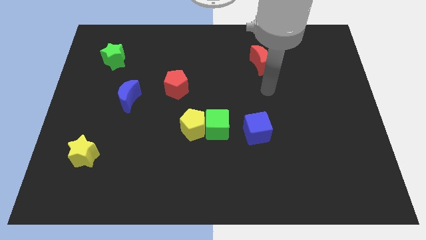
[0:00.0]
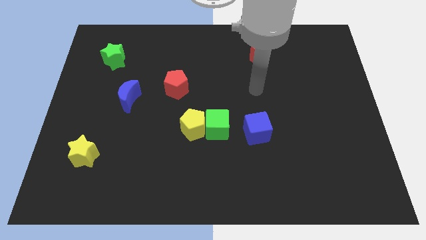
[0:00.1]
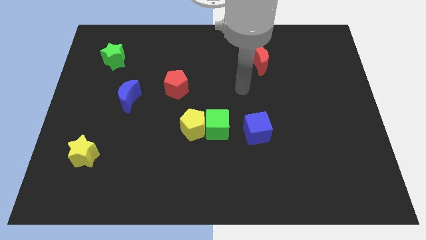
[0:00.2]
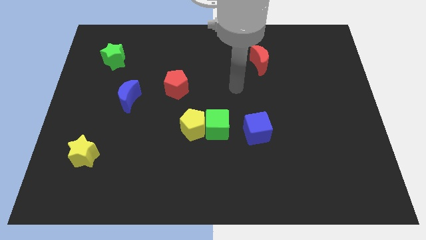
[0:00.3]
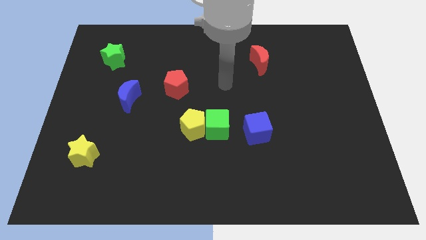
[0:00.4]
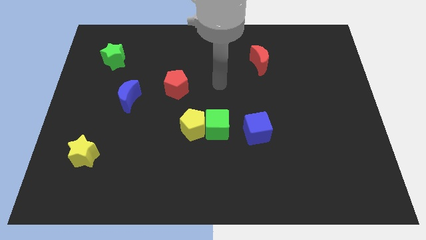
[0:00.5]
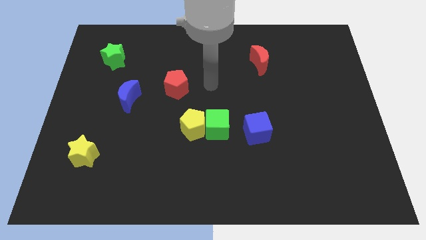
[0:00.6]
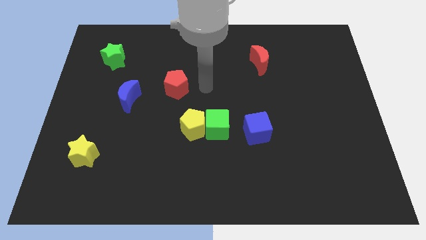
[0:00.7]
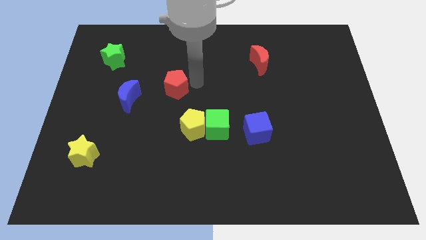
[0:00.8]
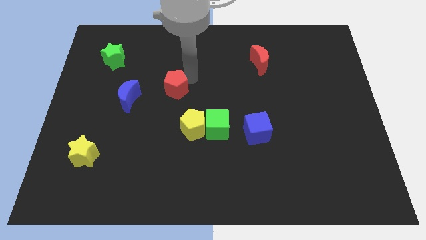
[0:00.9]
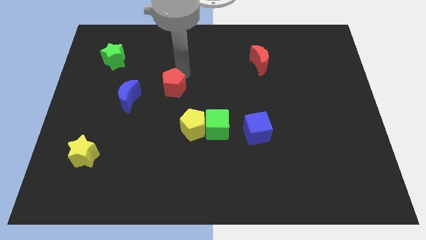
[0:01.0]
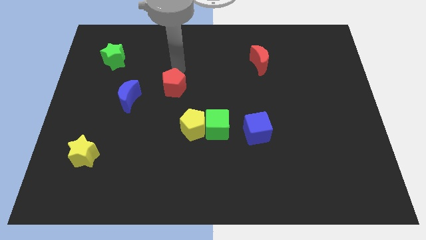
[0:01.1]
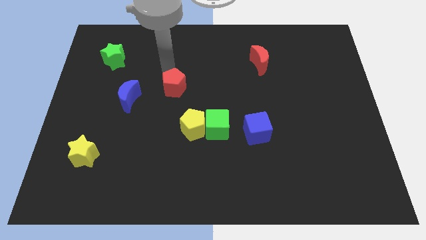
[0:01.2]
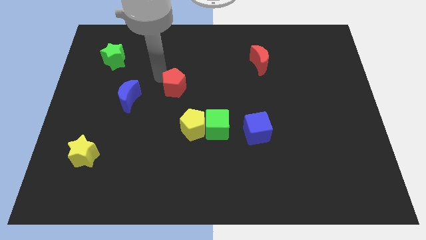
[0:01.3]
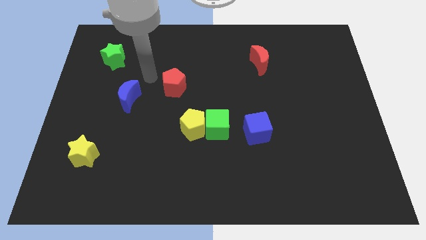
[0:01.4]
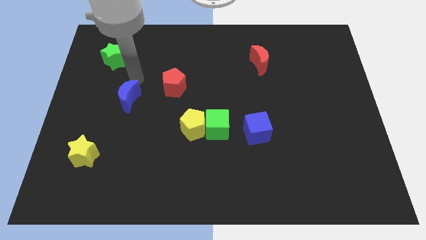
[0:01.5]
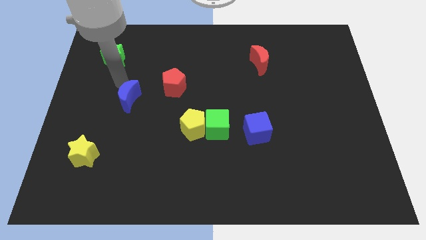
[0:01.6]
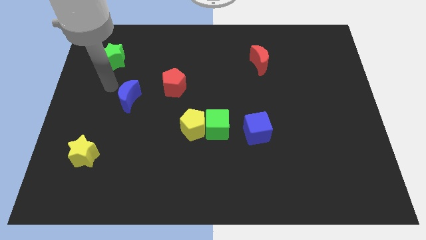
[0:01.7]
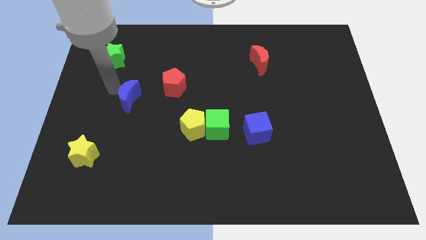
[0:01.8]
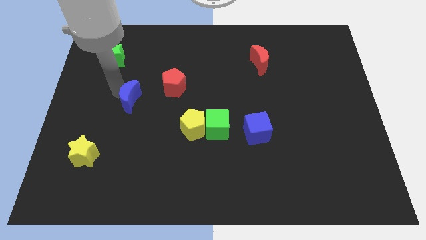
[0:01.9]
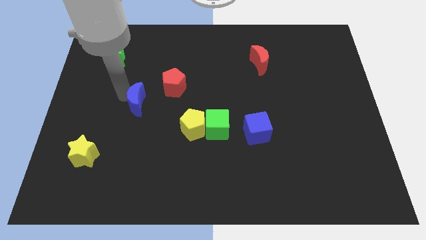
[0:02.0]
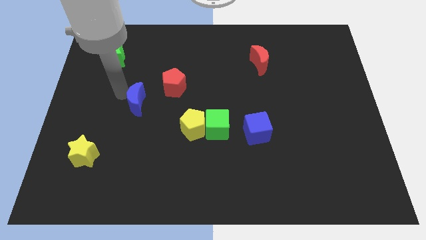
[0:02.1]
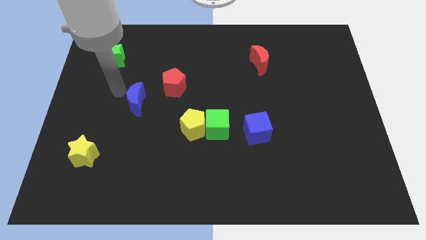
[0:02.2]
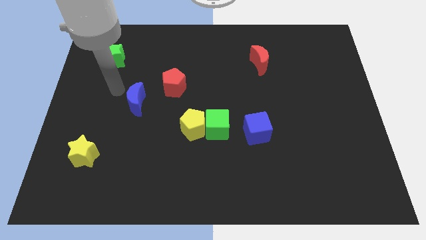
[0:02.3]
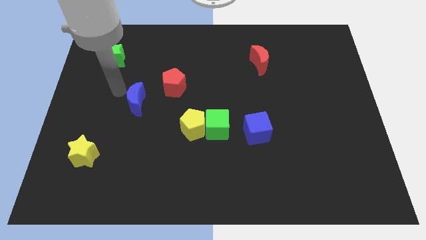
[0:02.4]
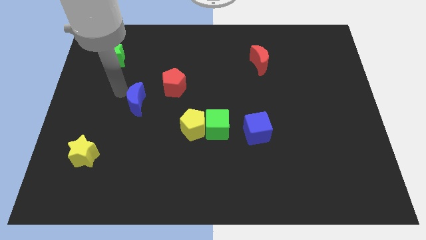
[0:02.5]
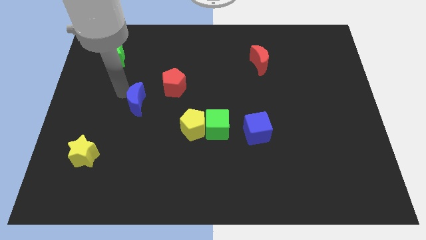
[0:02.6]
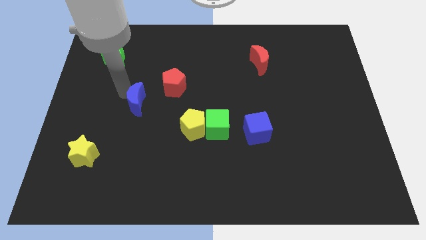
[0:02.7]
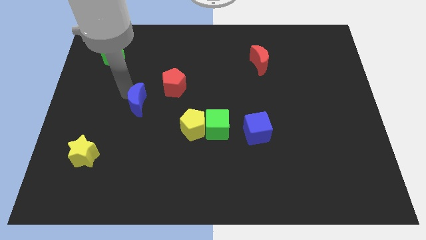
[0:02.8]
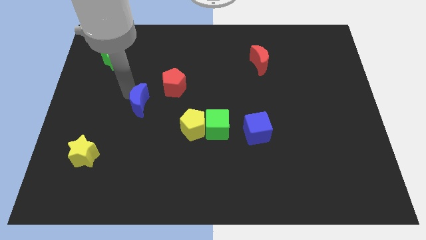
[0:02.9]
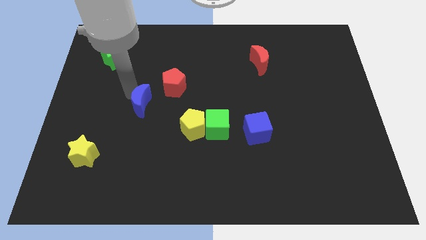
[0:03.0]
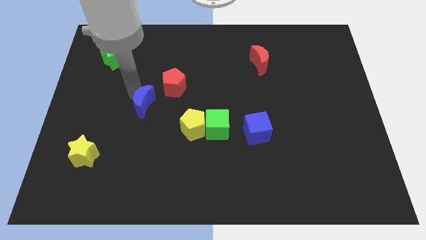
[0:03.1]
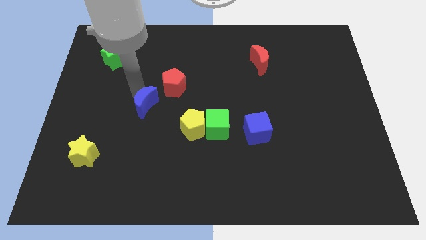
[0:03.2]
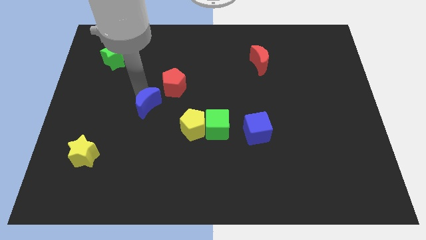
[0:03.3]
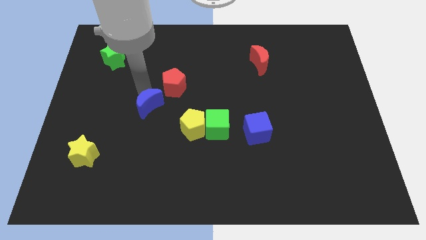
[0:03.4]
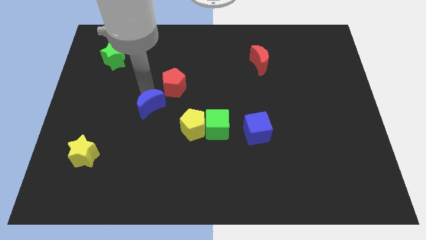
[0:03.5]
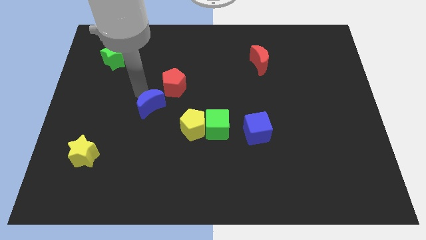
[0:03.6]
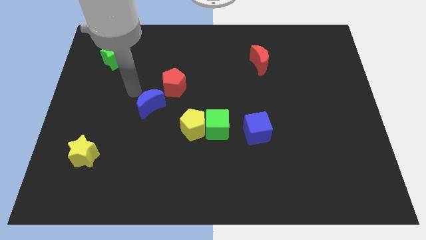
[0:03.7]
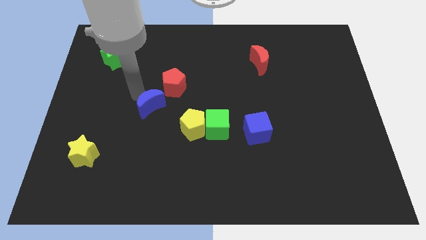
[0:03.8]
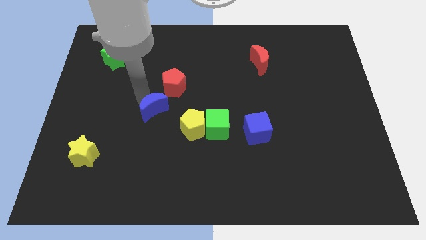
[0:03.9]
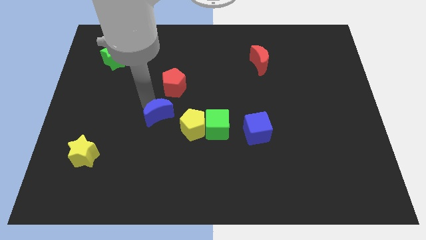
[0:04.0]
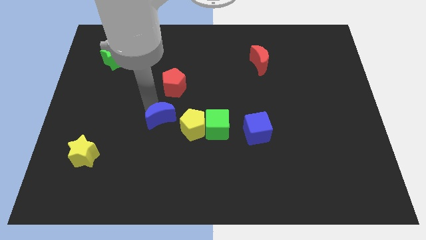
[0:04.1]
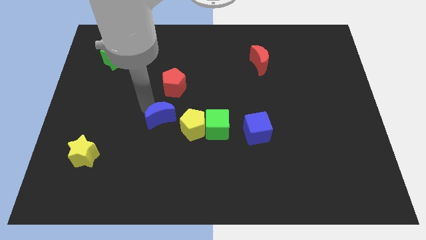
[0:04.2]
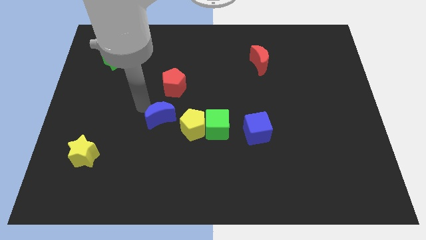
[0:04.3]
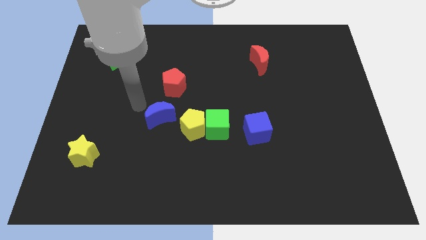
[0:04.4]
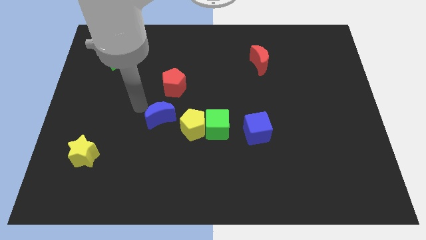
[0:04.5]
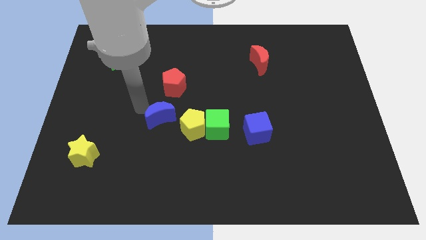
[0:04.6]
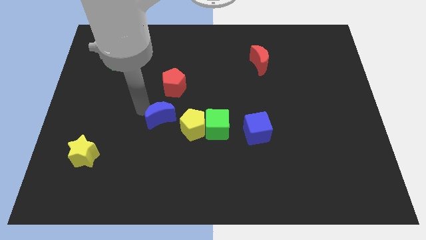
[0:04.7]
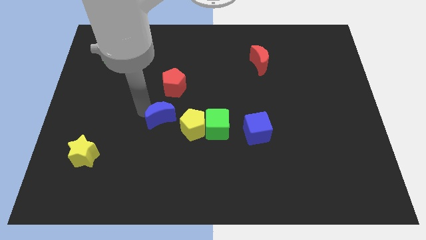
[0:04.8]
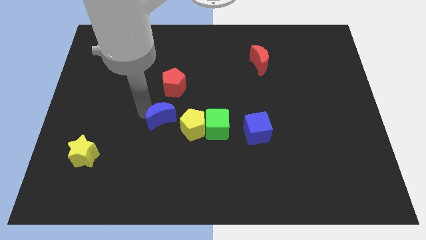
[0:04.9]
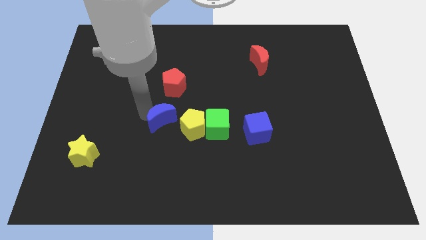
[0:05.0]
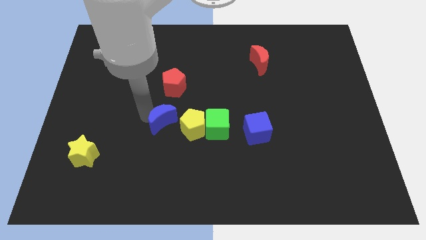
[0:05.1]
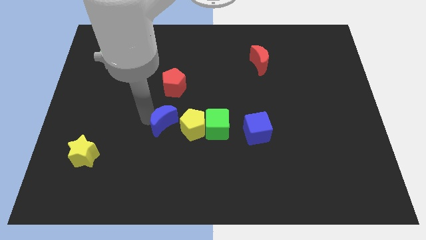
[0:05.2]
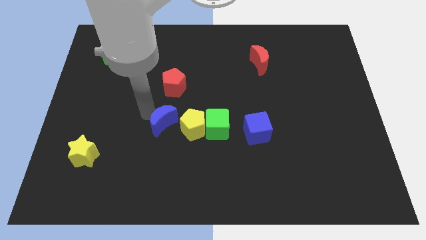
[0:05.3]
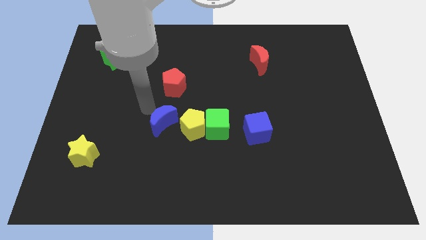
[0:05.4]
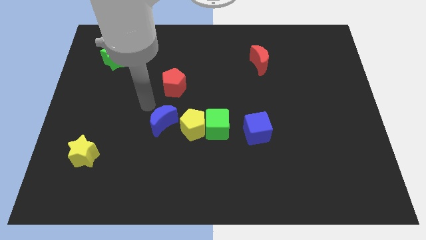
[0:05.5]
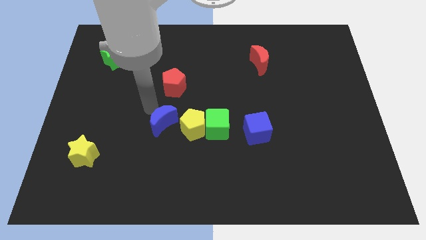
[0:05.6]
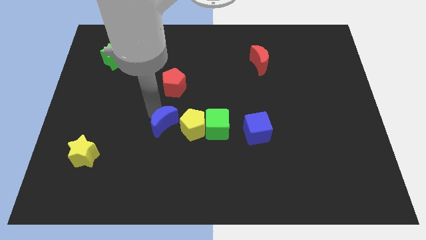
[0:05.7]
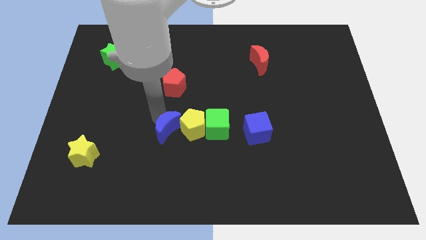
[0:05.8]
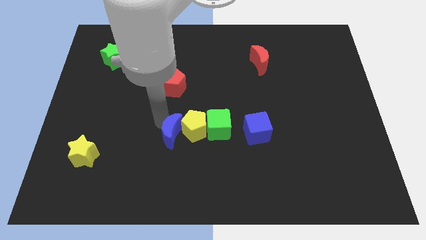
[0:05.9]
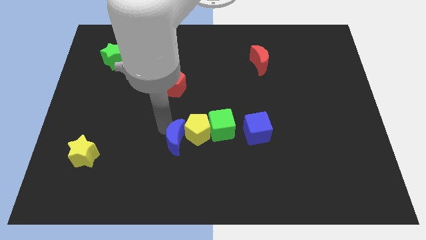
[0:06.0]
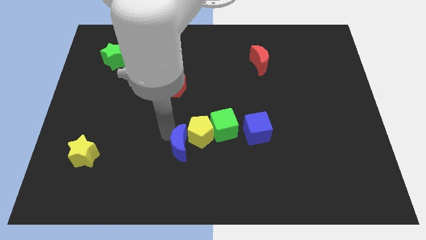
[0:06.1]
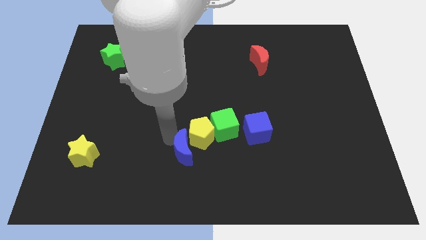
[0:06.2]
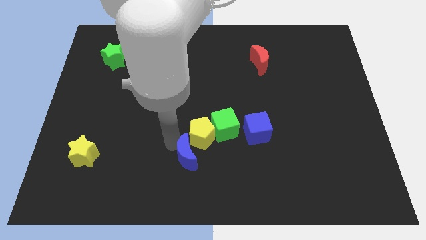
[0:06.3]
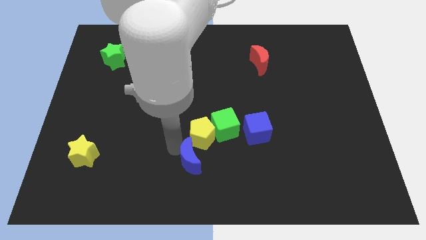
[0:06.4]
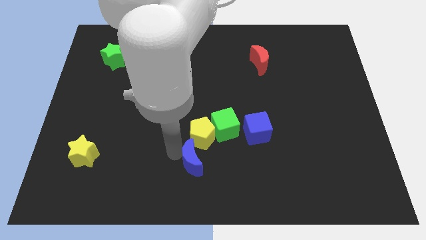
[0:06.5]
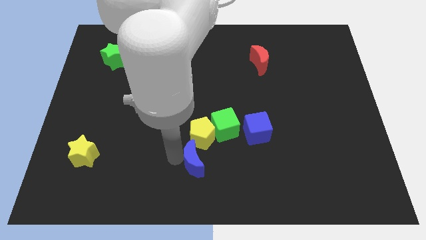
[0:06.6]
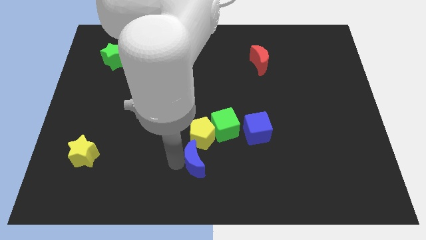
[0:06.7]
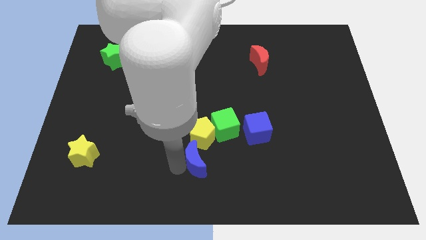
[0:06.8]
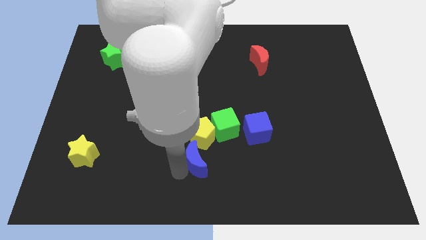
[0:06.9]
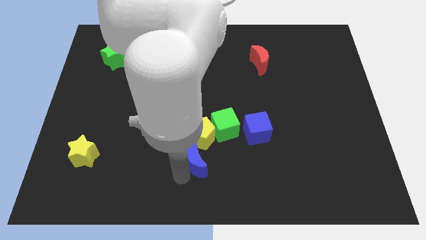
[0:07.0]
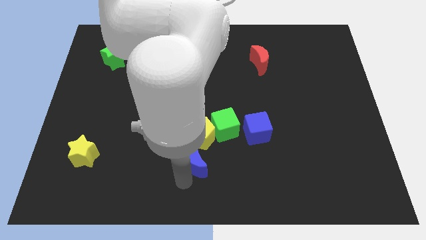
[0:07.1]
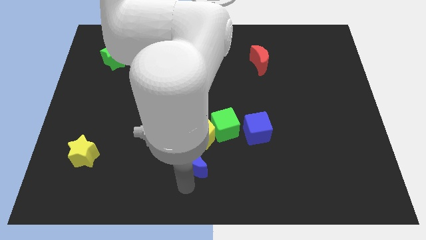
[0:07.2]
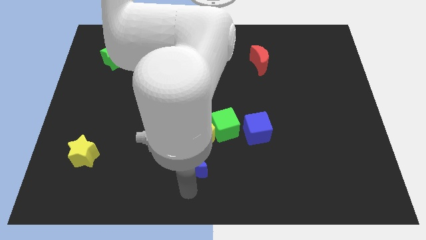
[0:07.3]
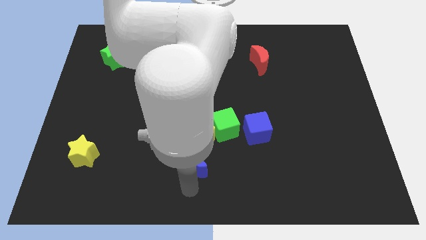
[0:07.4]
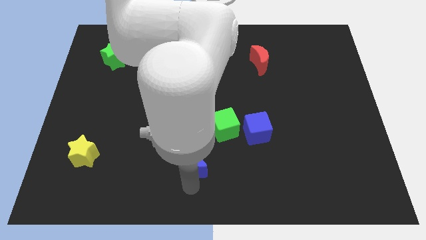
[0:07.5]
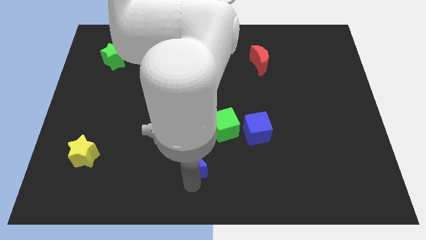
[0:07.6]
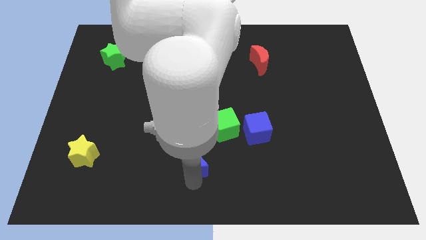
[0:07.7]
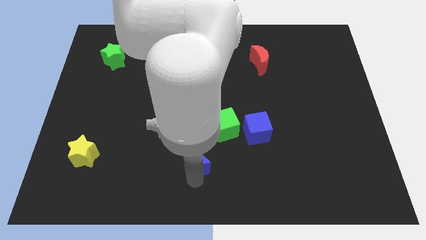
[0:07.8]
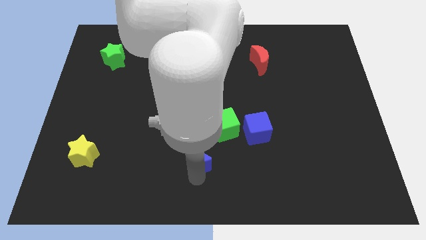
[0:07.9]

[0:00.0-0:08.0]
push the blue moon to the bottom right of the yellow pentagon
